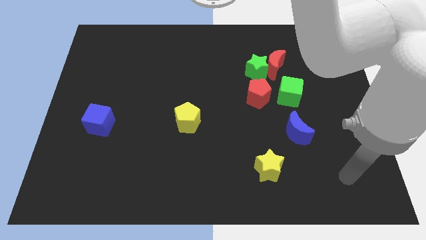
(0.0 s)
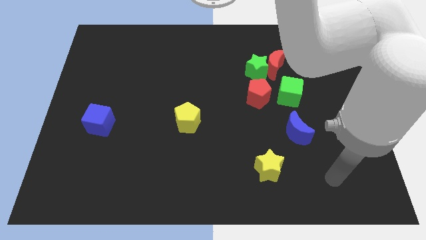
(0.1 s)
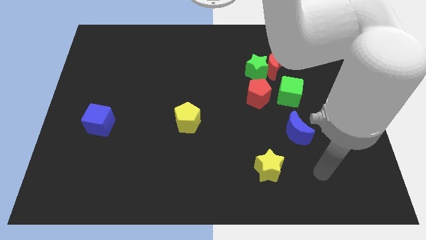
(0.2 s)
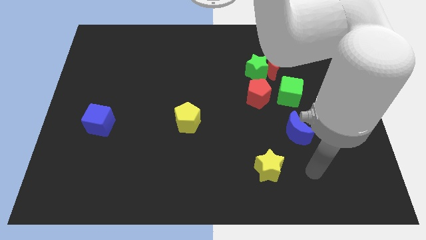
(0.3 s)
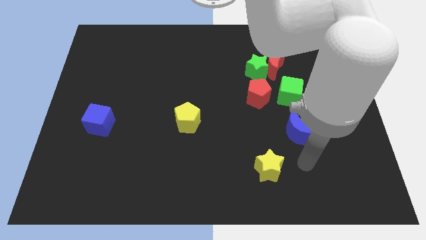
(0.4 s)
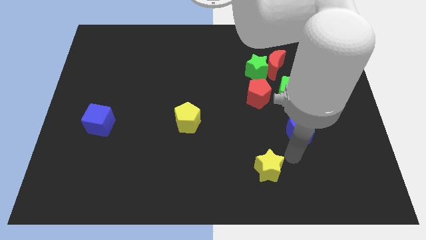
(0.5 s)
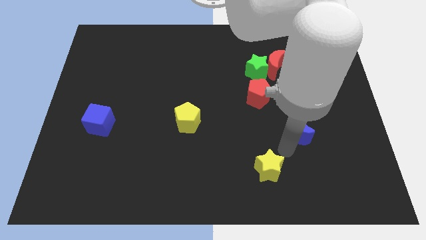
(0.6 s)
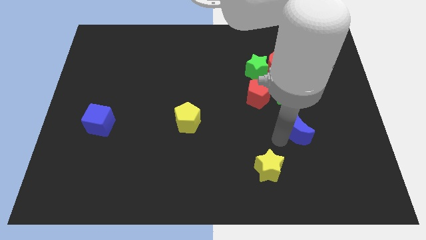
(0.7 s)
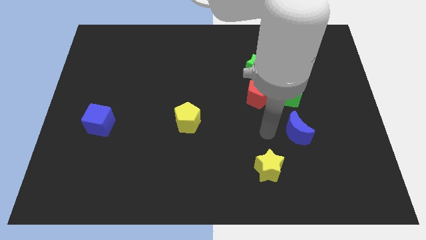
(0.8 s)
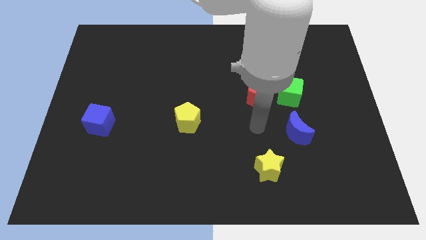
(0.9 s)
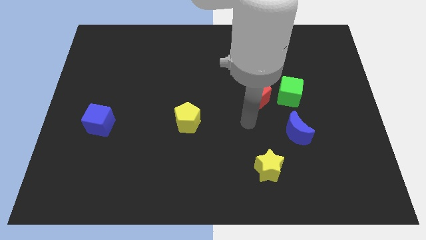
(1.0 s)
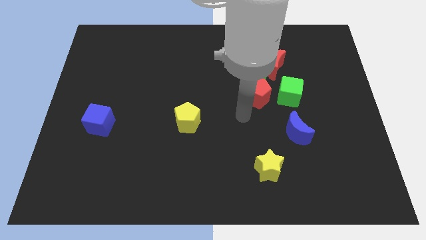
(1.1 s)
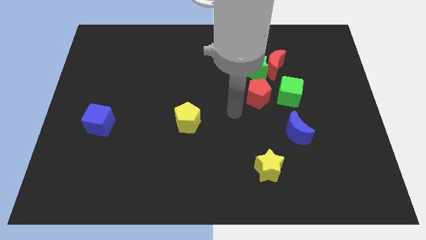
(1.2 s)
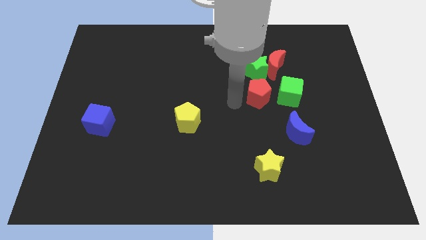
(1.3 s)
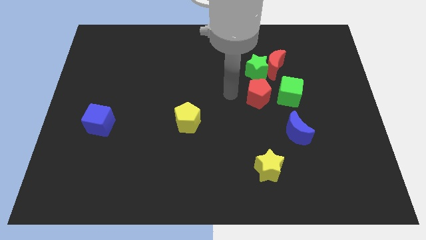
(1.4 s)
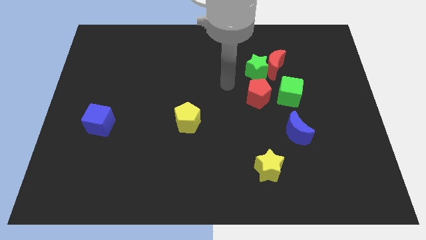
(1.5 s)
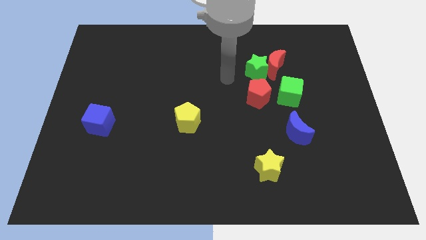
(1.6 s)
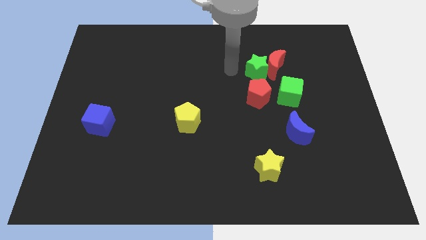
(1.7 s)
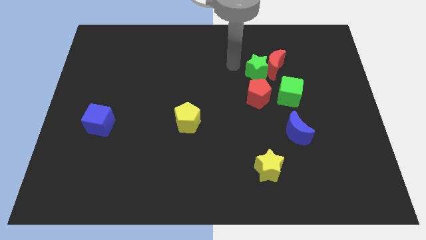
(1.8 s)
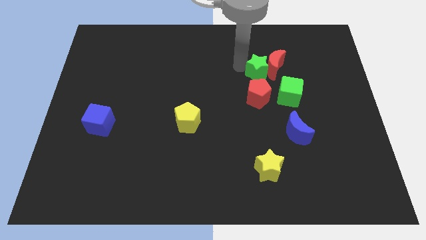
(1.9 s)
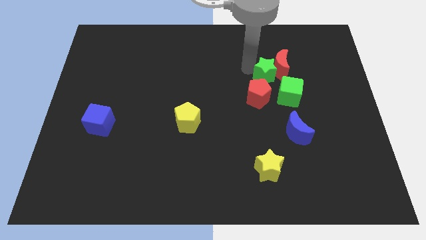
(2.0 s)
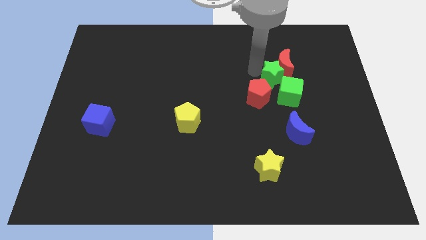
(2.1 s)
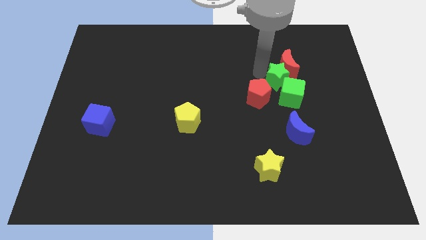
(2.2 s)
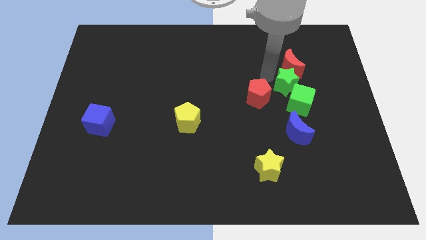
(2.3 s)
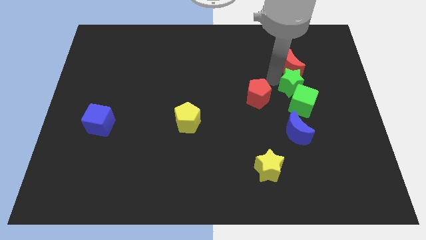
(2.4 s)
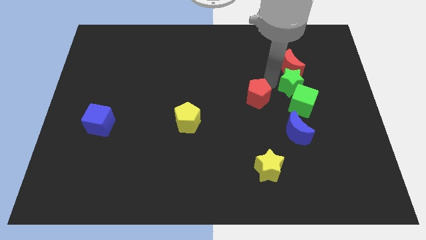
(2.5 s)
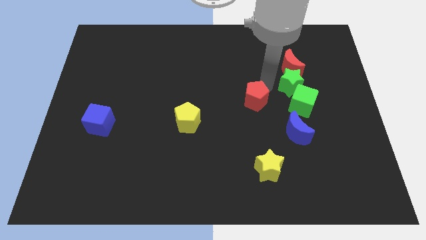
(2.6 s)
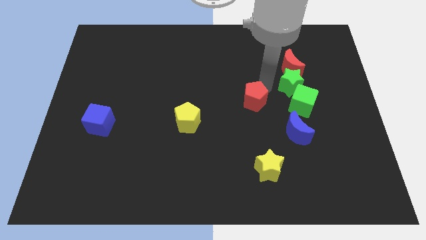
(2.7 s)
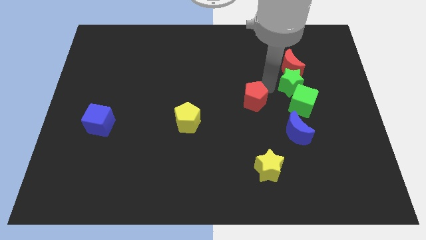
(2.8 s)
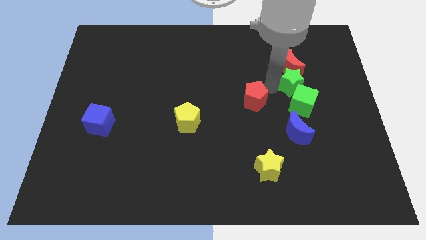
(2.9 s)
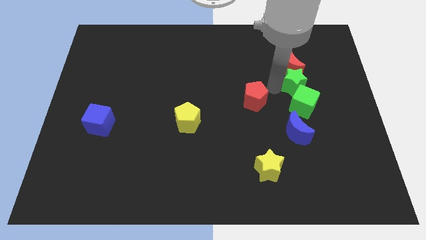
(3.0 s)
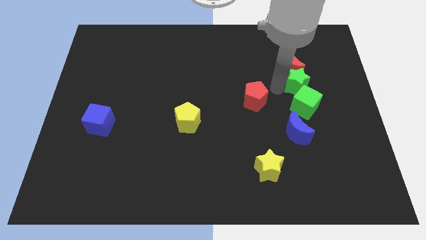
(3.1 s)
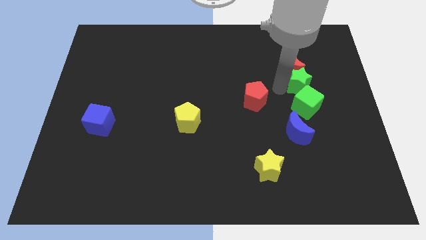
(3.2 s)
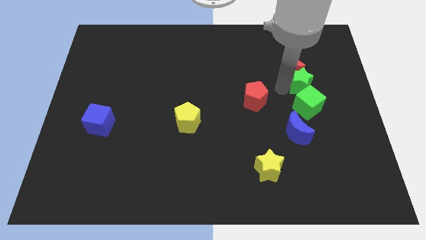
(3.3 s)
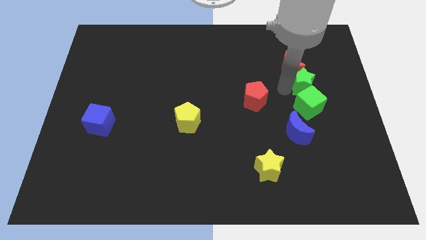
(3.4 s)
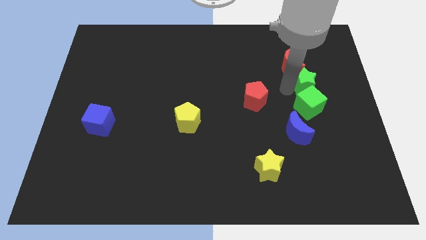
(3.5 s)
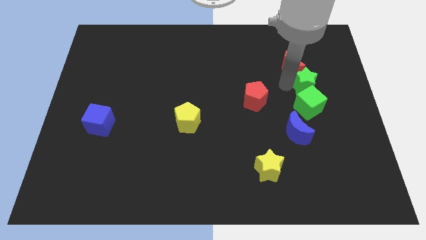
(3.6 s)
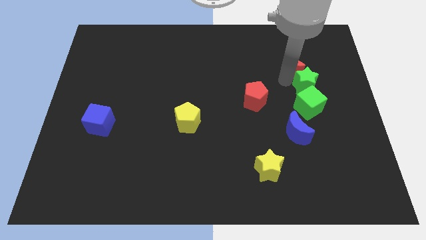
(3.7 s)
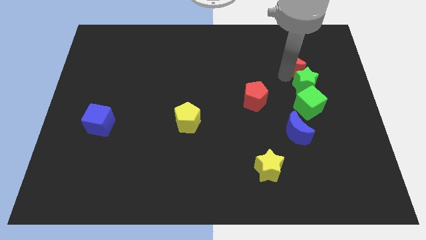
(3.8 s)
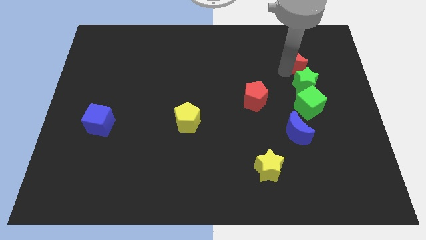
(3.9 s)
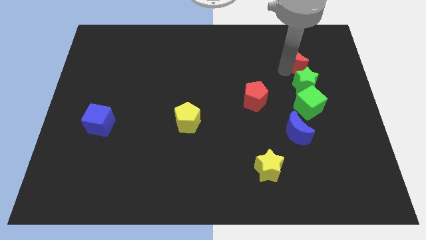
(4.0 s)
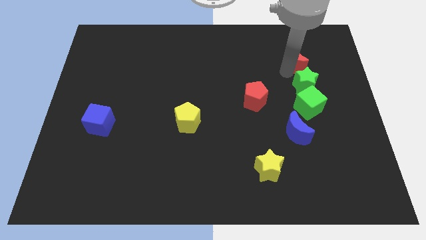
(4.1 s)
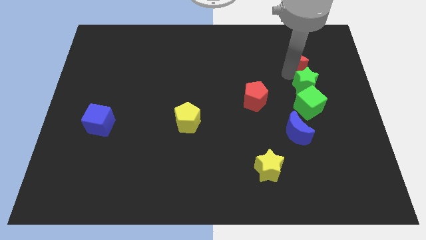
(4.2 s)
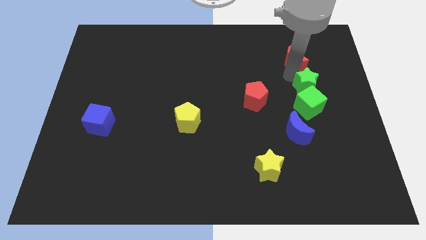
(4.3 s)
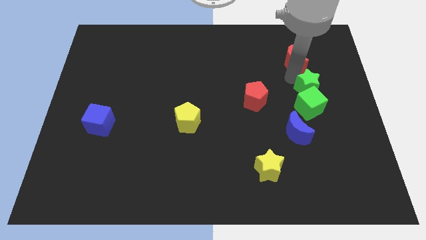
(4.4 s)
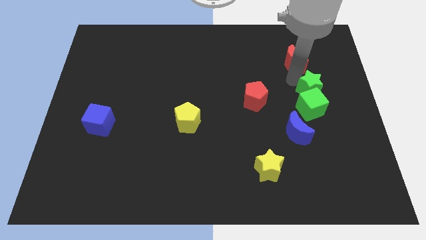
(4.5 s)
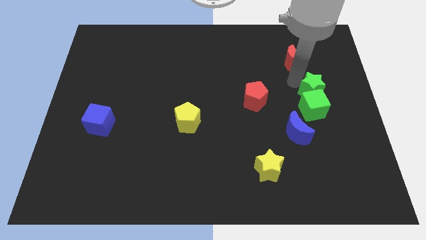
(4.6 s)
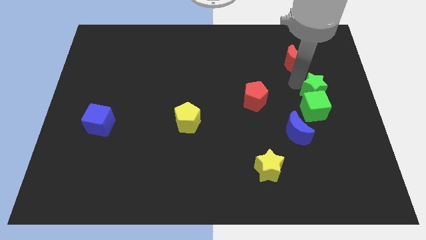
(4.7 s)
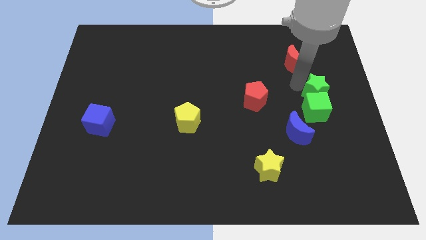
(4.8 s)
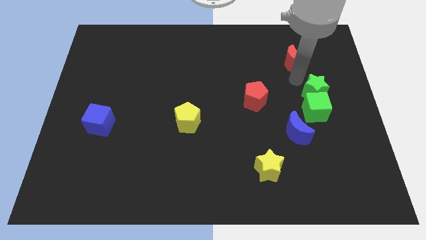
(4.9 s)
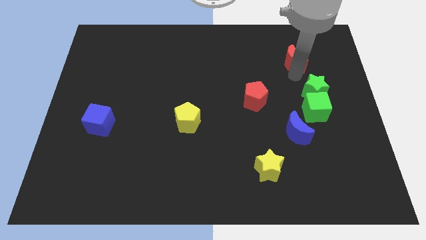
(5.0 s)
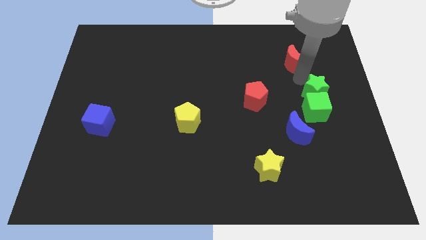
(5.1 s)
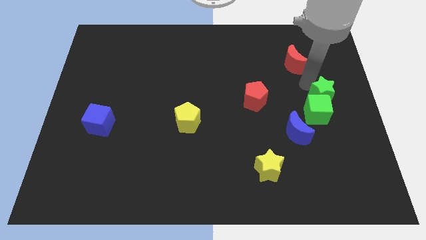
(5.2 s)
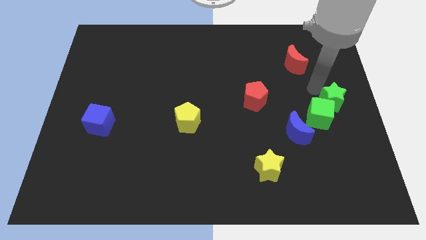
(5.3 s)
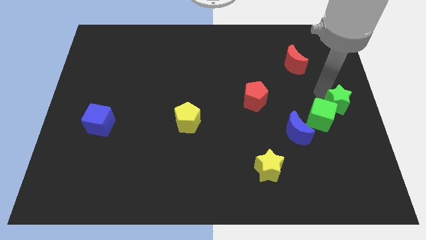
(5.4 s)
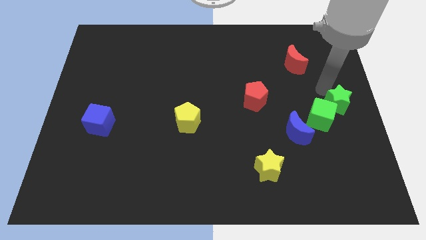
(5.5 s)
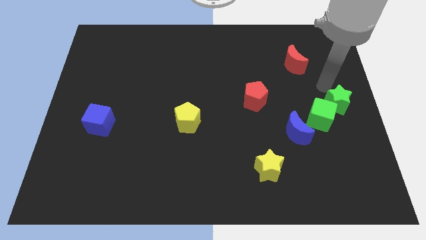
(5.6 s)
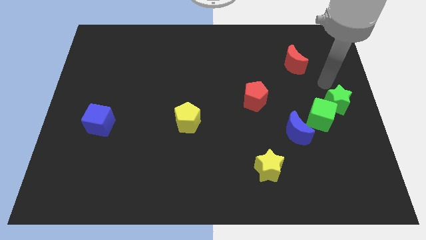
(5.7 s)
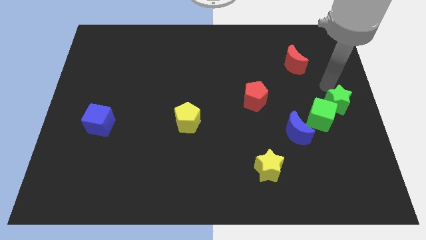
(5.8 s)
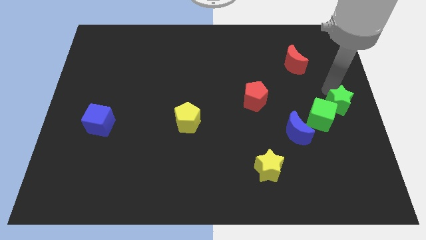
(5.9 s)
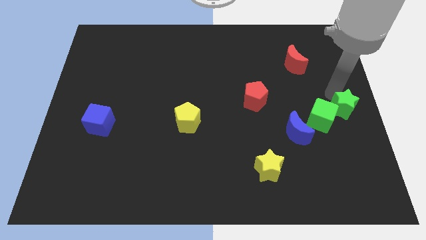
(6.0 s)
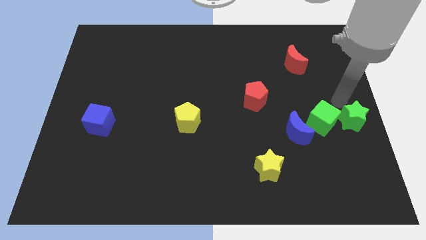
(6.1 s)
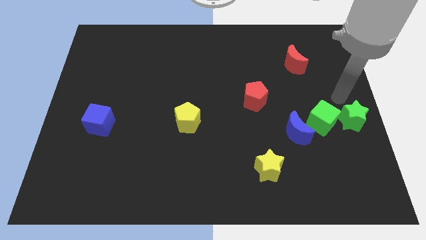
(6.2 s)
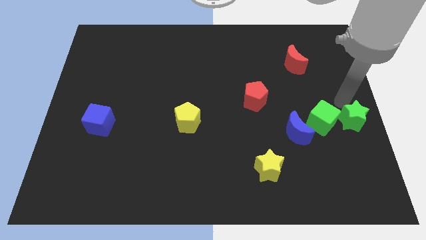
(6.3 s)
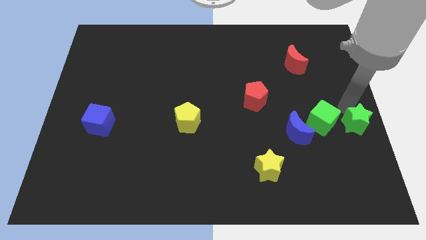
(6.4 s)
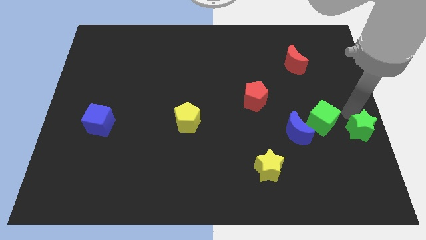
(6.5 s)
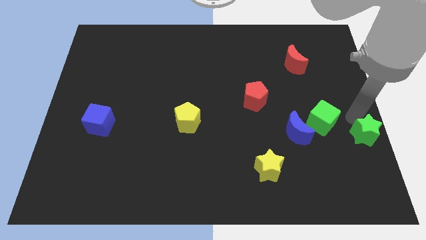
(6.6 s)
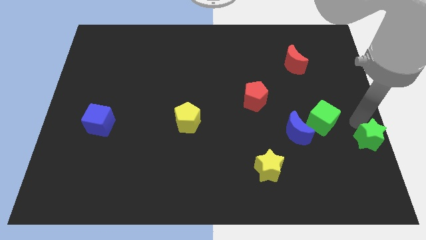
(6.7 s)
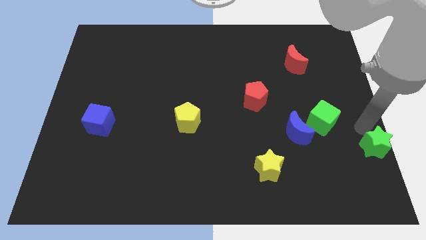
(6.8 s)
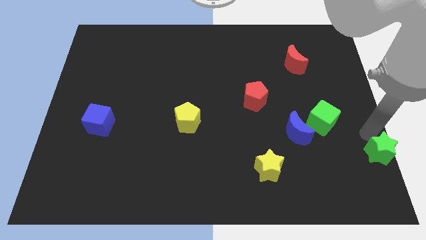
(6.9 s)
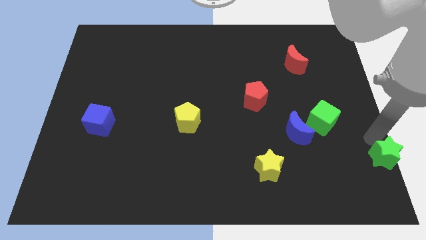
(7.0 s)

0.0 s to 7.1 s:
put the green star to the bottom right corner
